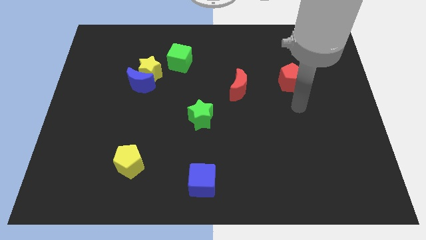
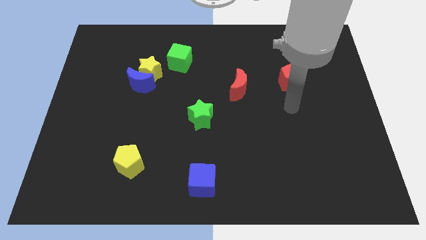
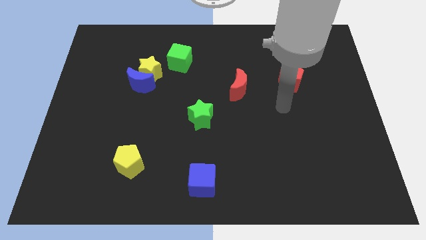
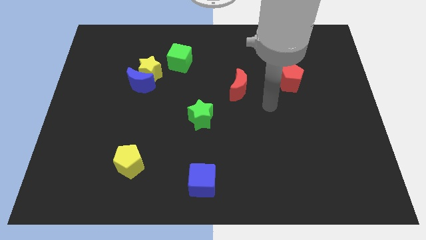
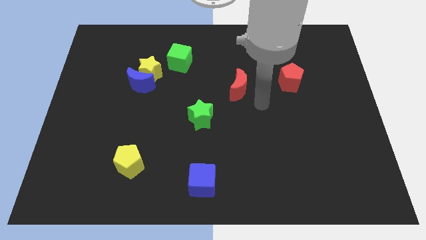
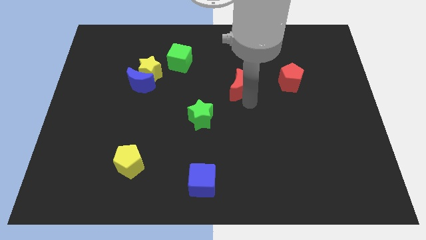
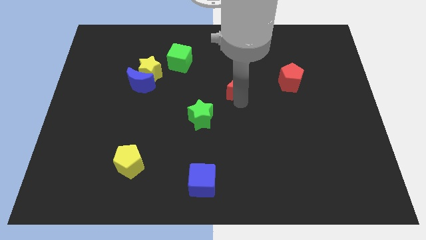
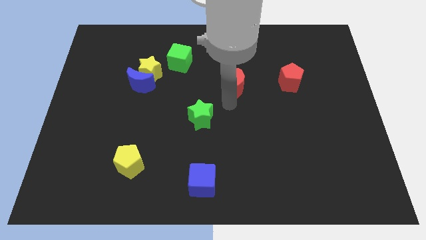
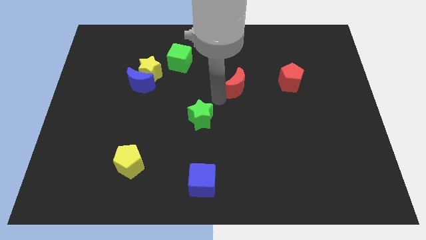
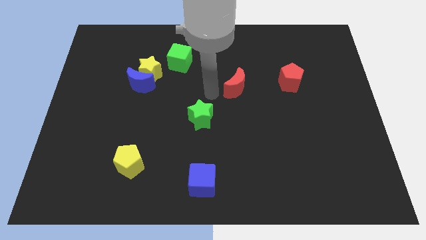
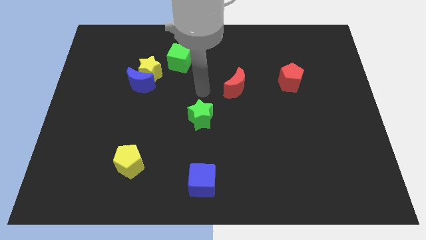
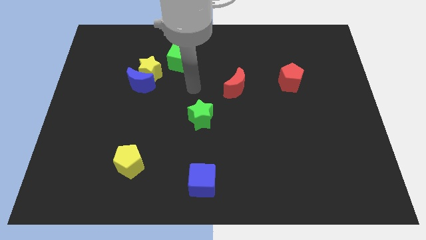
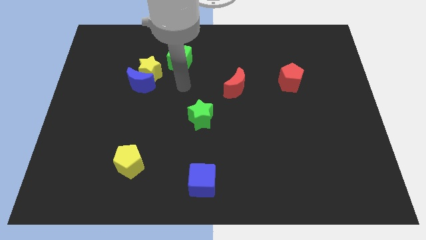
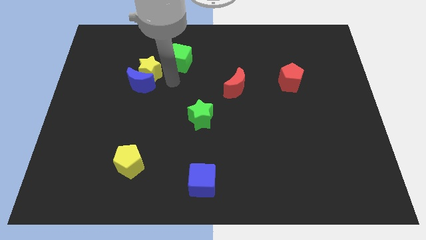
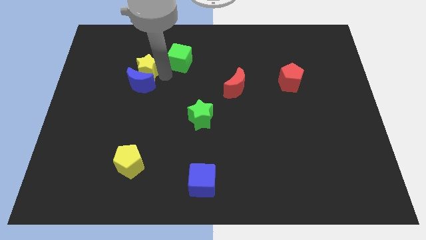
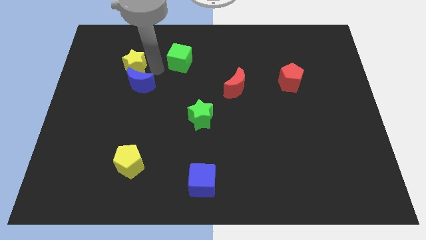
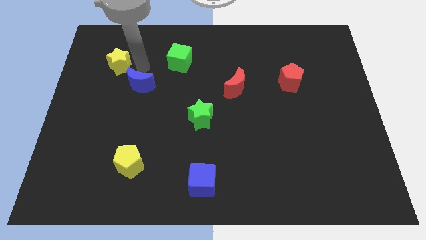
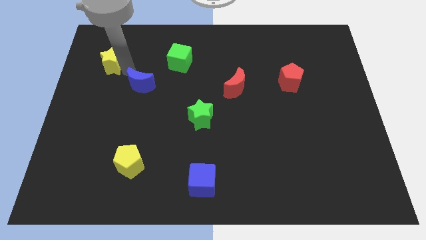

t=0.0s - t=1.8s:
pull the blue moon apart from the yellow star

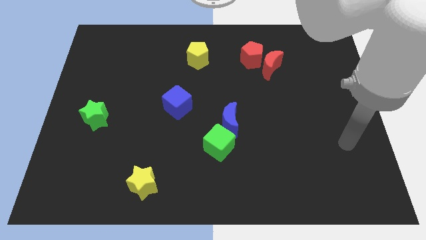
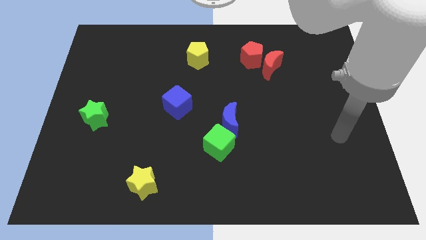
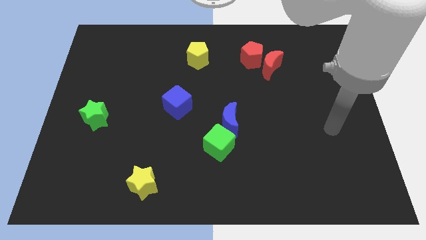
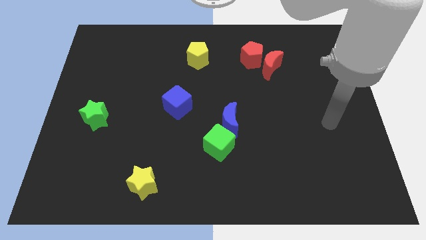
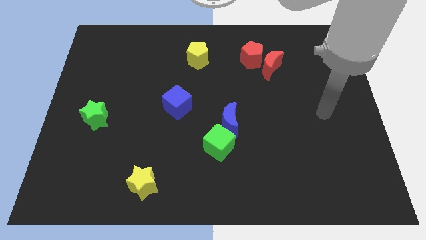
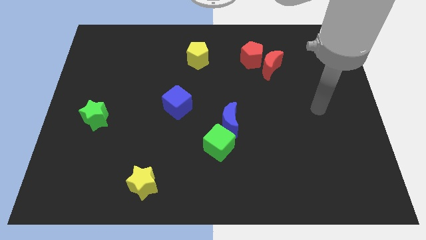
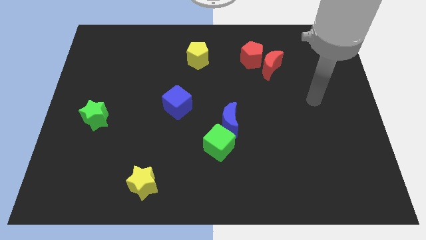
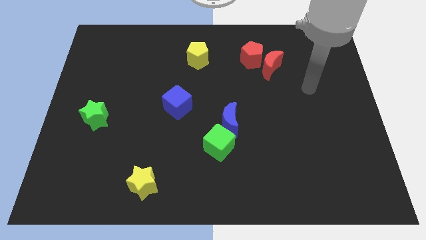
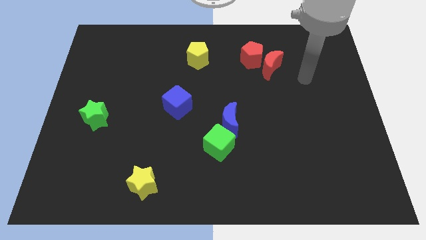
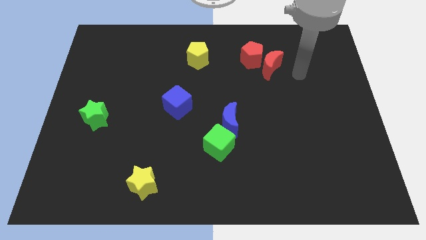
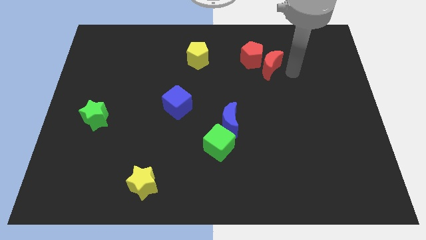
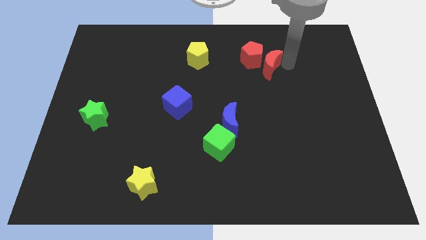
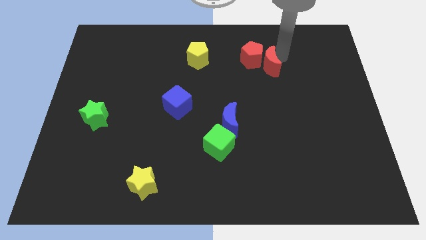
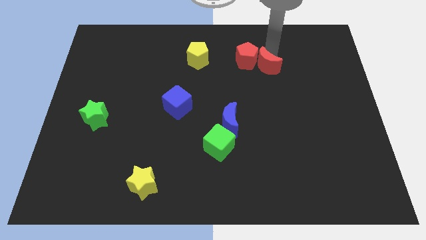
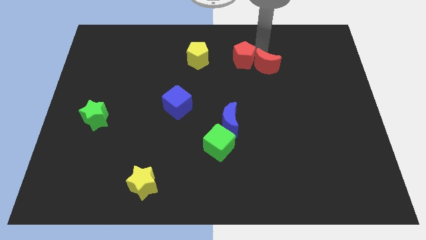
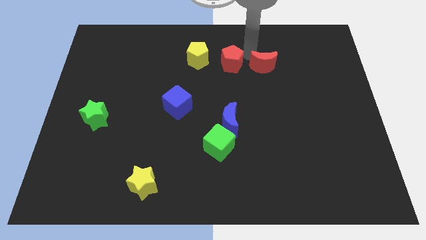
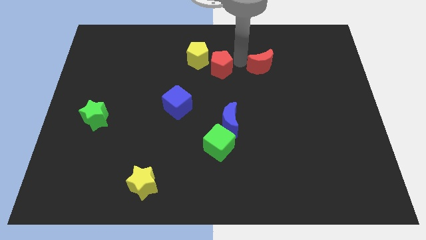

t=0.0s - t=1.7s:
move the red moon away from the red pentagon

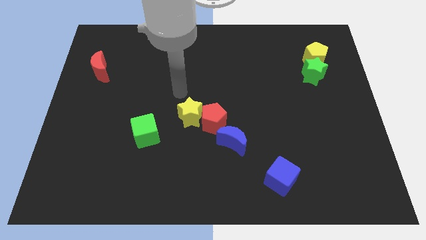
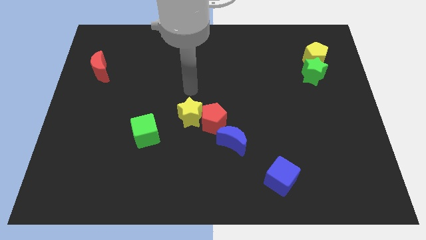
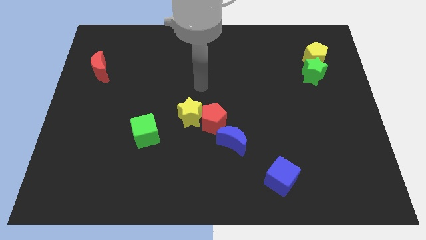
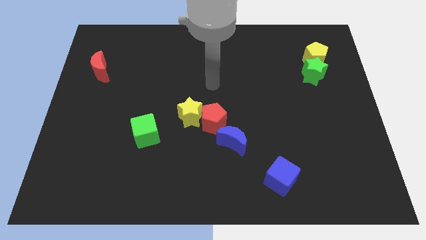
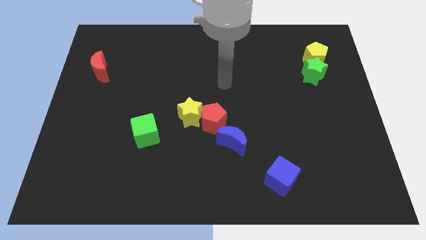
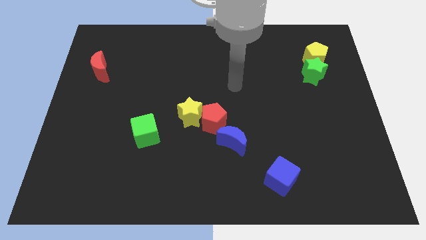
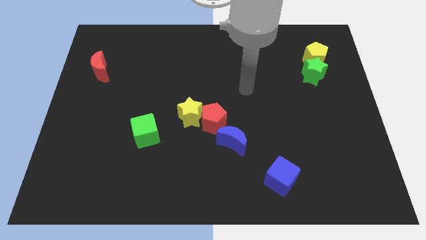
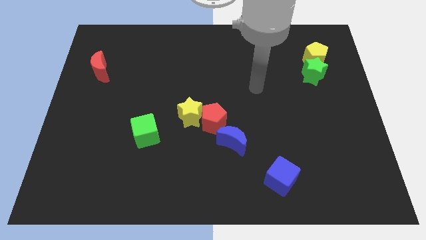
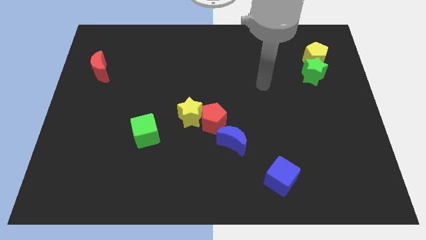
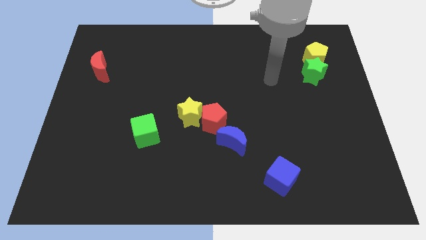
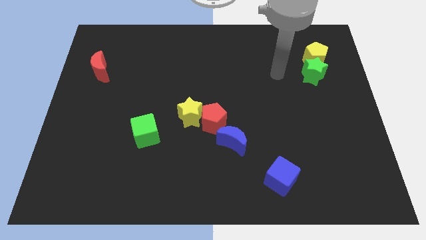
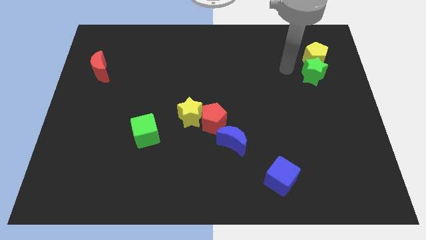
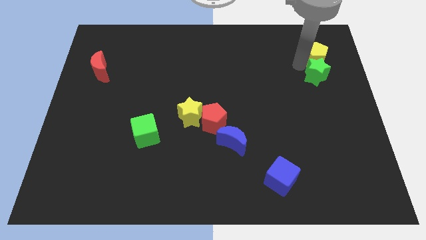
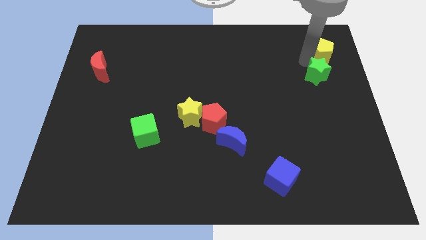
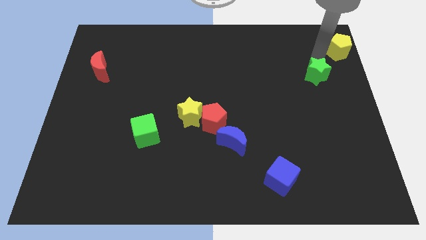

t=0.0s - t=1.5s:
move the green star away from the yellow pentagon

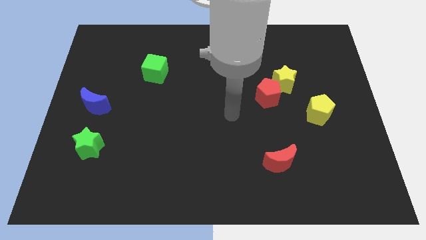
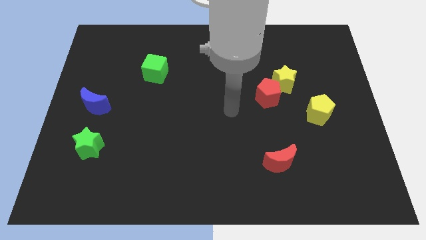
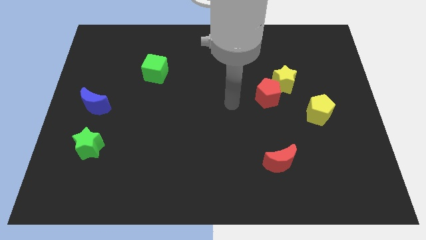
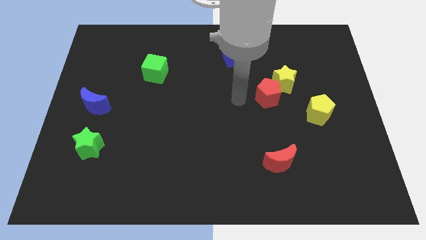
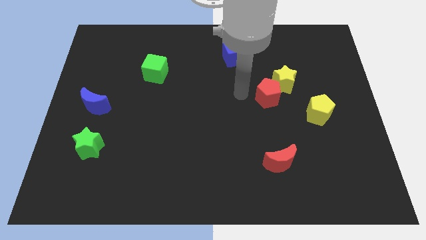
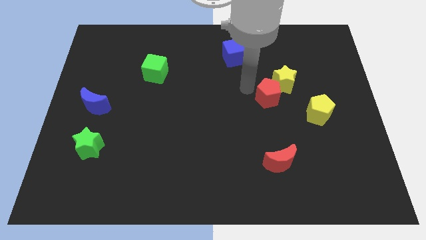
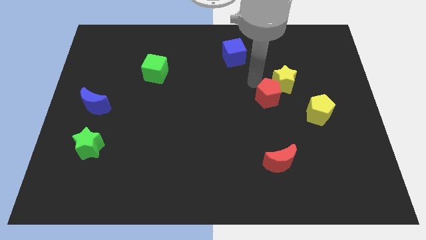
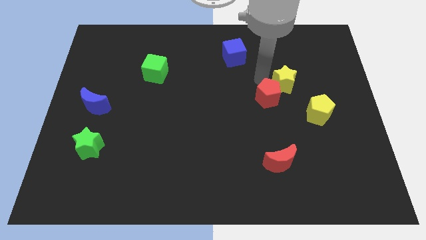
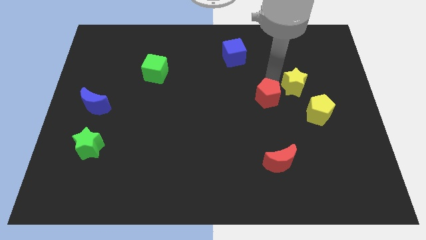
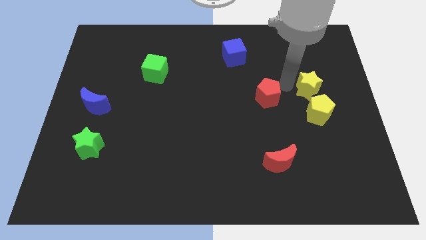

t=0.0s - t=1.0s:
move the red pentagon away from the yellow star

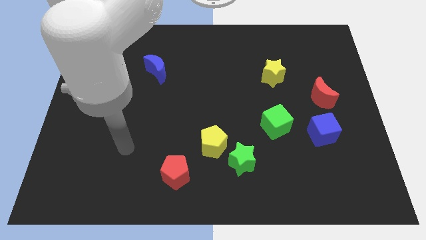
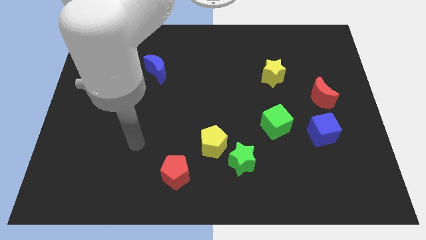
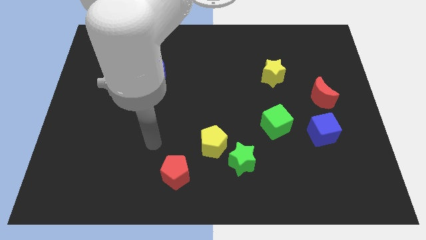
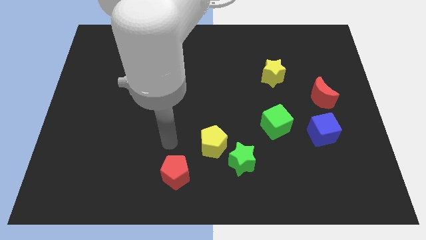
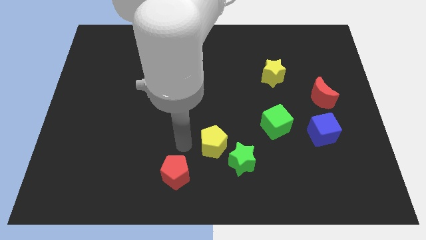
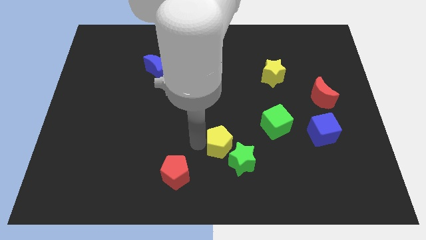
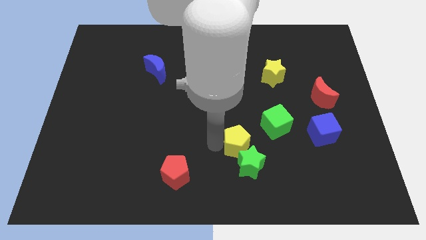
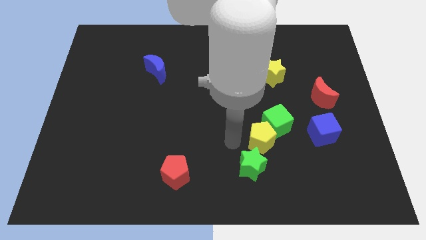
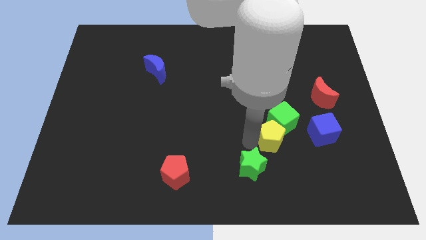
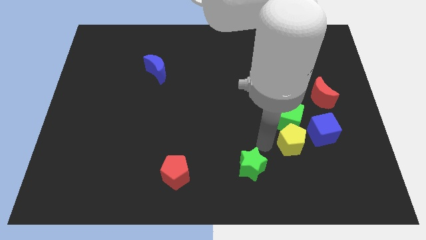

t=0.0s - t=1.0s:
pull the green star apart from the yellow pentagon

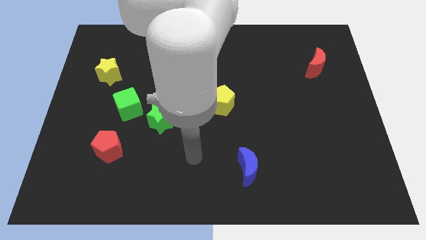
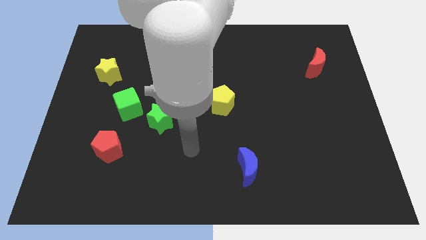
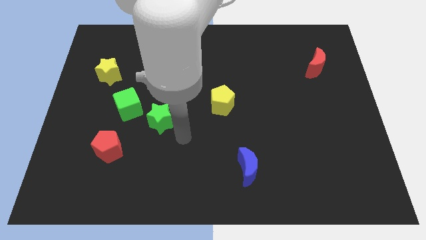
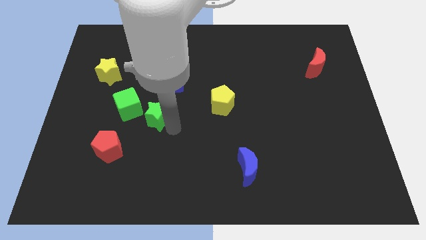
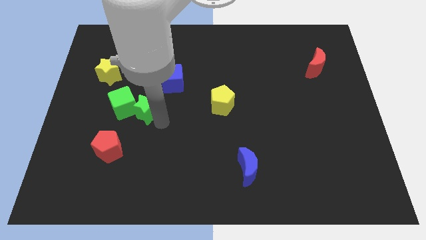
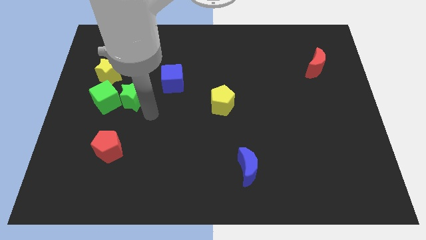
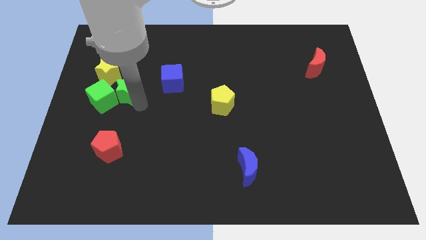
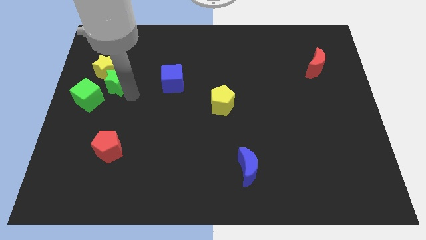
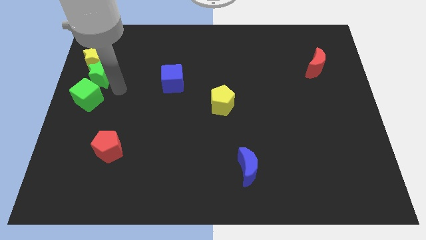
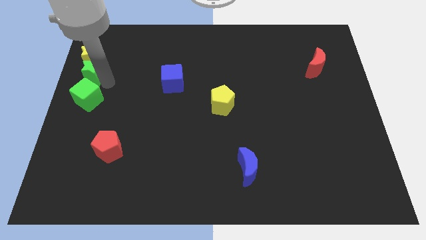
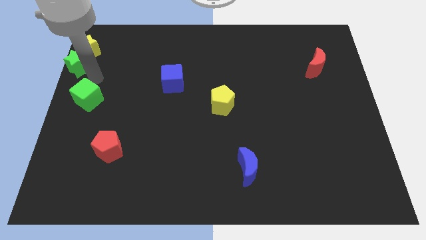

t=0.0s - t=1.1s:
pull the green cube apart from the green star

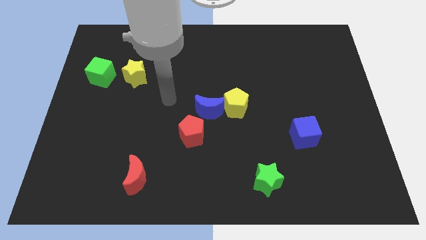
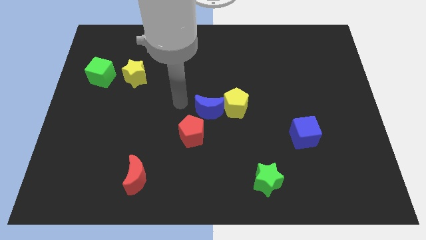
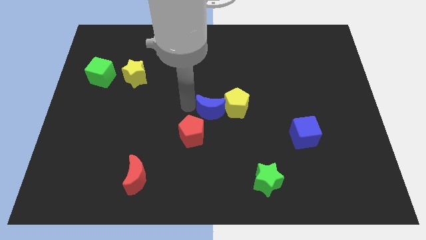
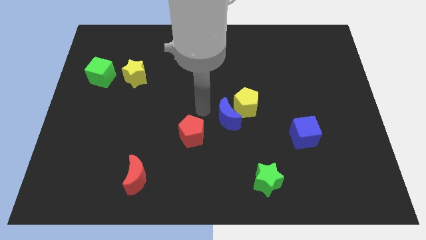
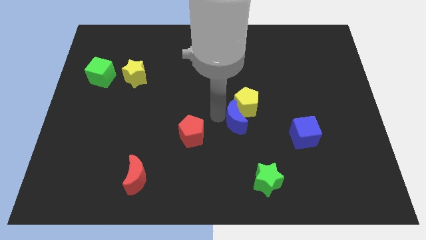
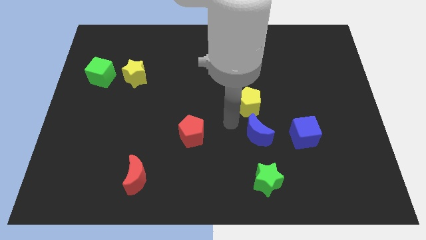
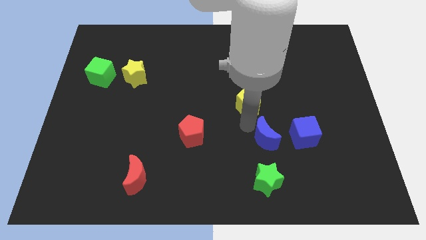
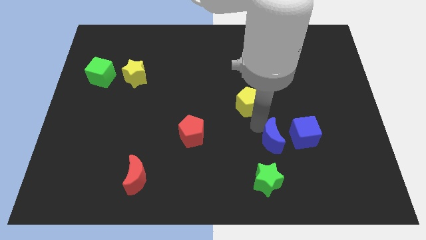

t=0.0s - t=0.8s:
separate the yellow pentagon from the blue moon

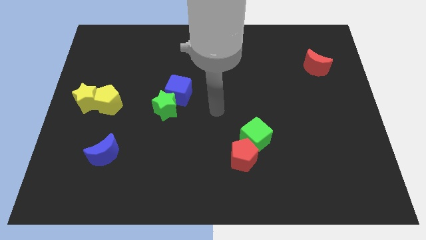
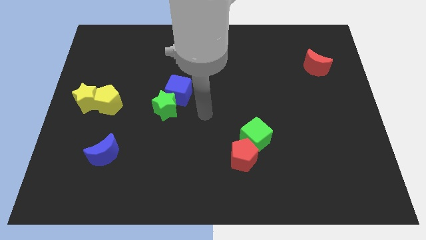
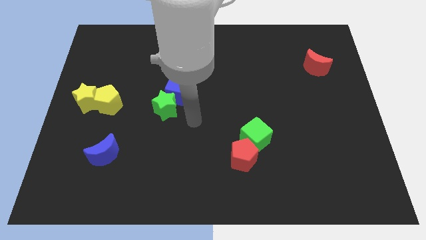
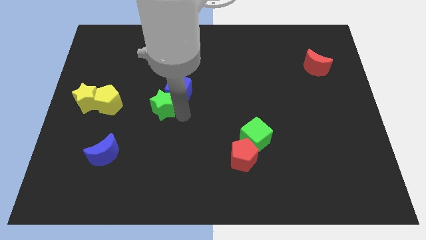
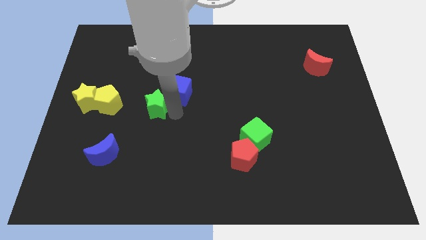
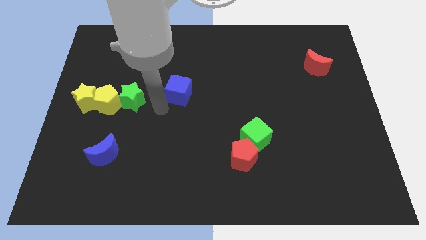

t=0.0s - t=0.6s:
separate the blue cube from the green star
